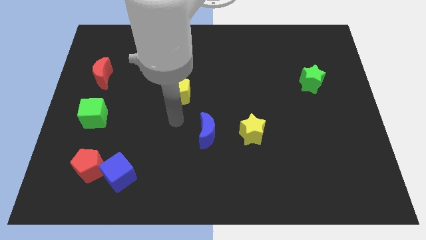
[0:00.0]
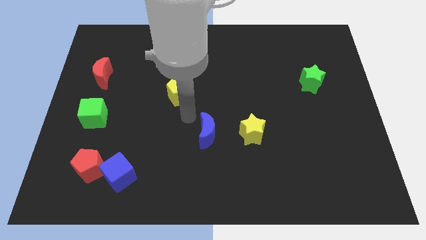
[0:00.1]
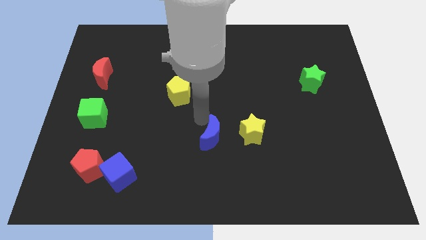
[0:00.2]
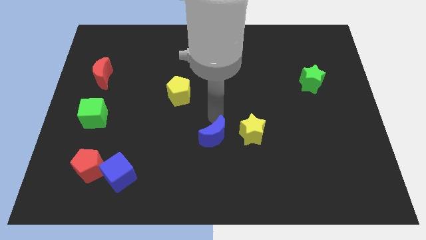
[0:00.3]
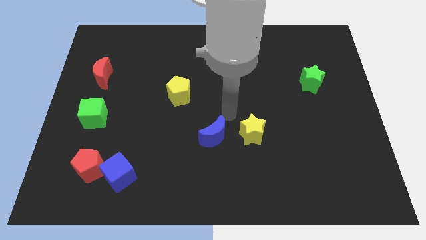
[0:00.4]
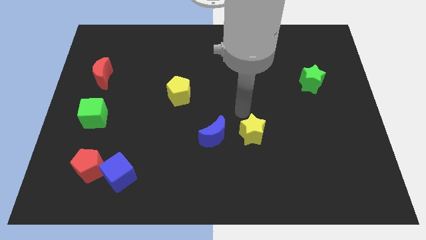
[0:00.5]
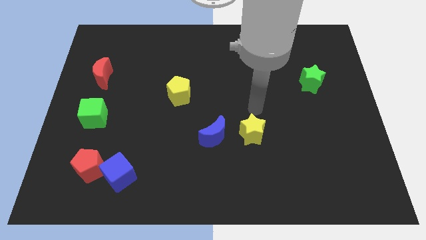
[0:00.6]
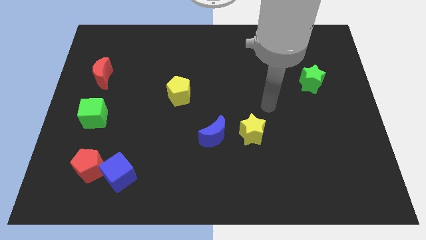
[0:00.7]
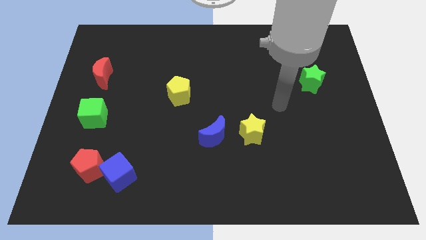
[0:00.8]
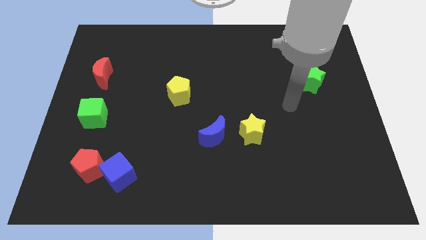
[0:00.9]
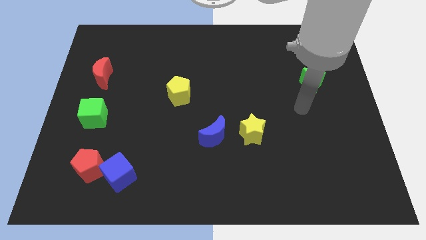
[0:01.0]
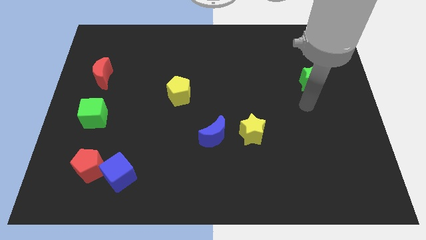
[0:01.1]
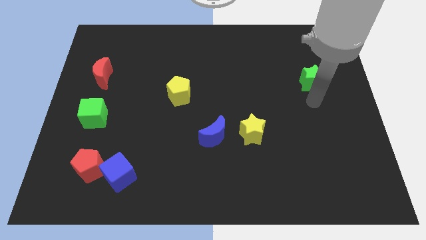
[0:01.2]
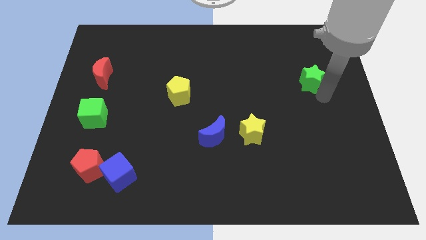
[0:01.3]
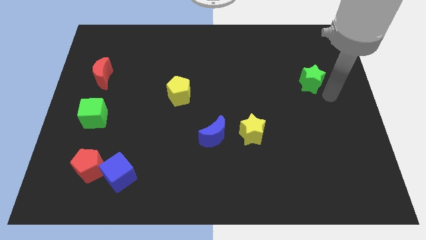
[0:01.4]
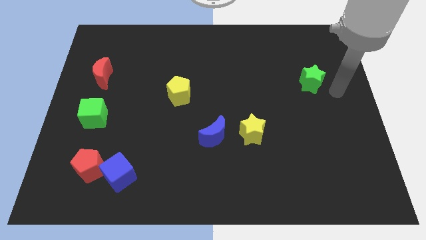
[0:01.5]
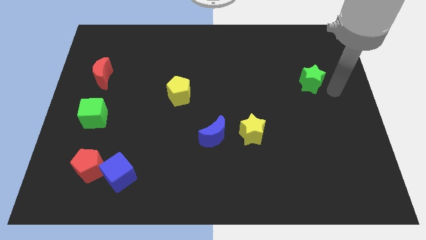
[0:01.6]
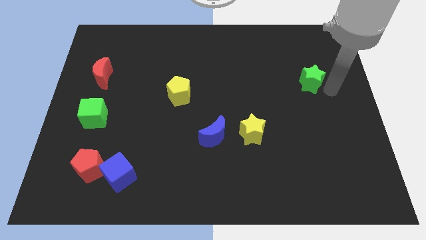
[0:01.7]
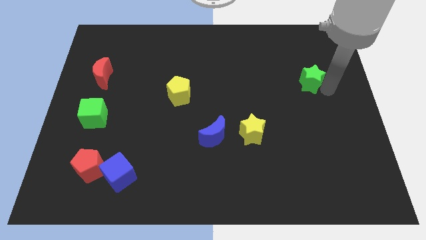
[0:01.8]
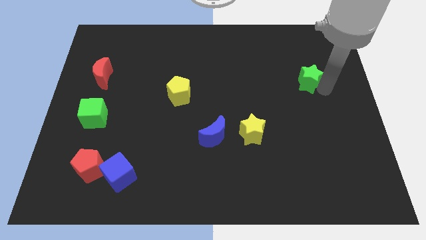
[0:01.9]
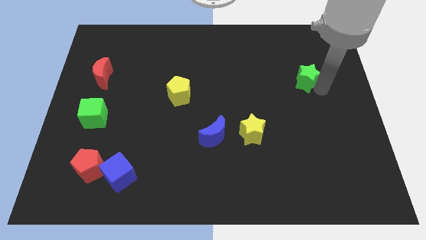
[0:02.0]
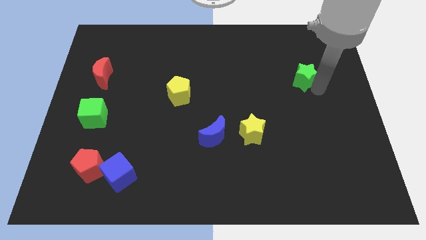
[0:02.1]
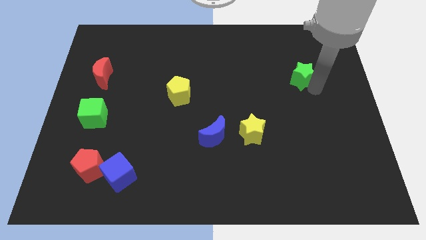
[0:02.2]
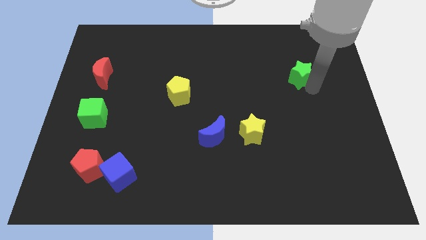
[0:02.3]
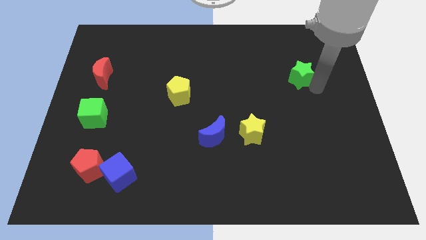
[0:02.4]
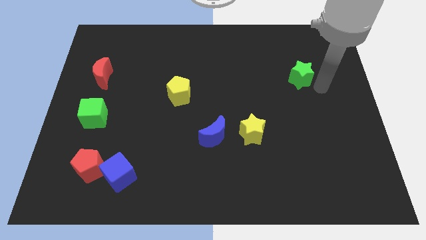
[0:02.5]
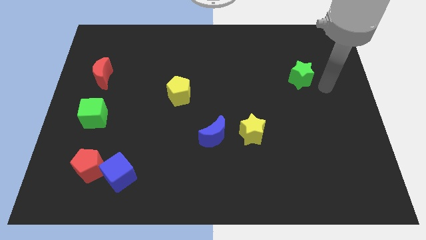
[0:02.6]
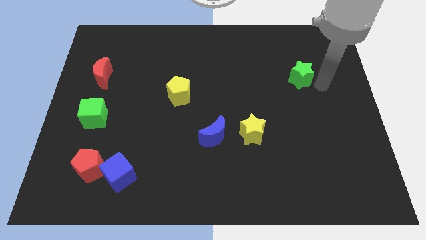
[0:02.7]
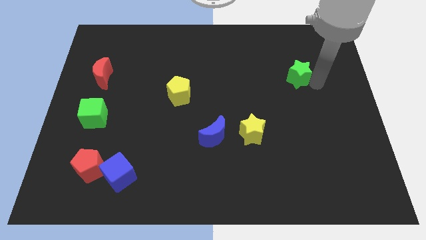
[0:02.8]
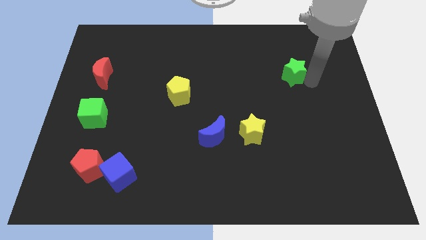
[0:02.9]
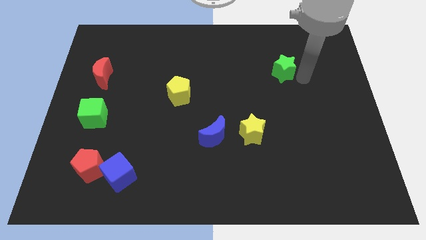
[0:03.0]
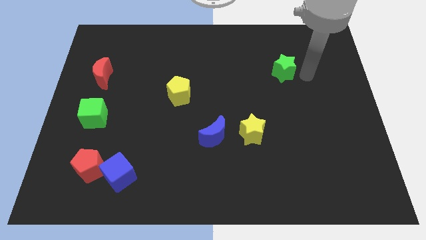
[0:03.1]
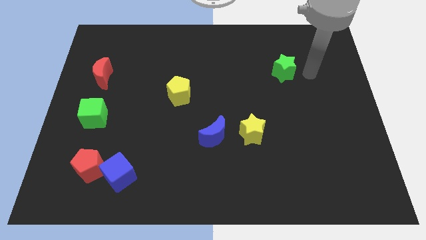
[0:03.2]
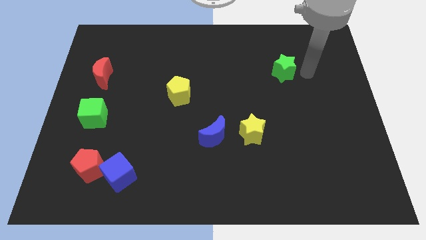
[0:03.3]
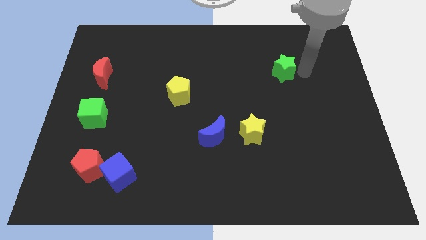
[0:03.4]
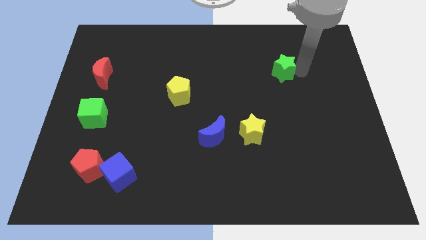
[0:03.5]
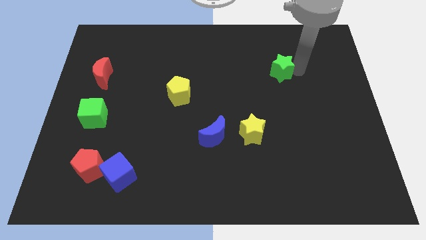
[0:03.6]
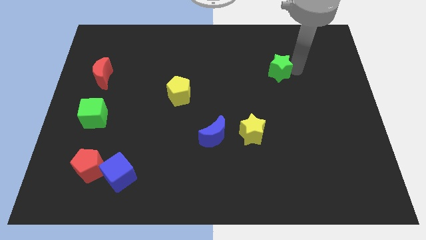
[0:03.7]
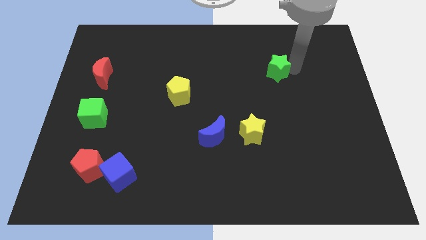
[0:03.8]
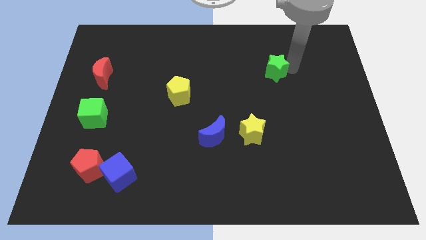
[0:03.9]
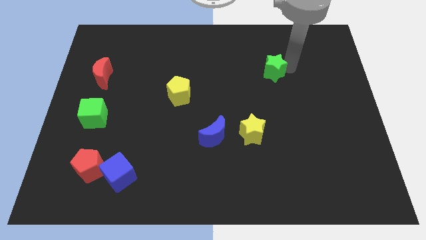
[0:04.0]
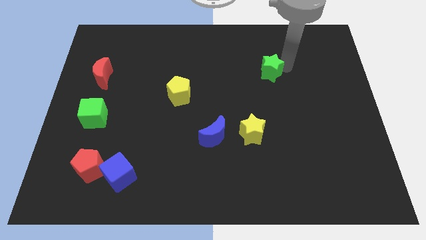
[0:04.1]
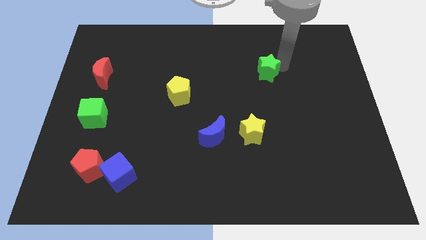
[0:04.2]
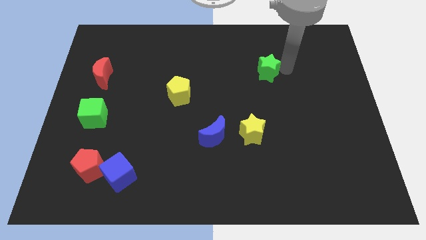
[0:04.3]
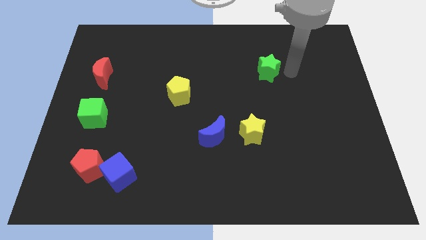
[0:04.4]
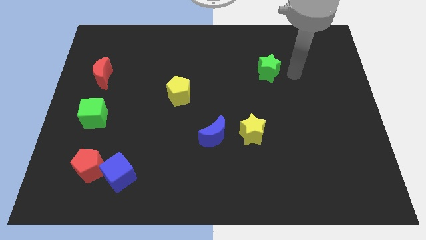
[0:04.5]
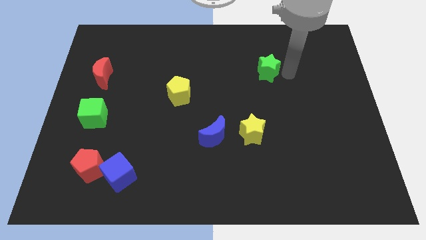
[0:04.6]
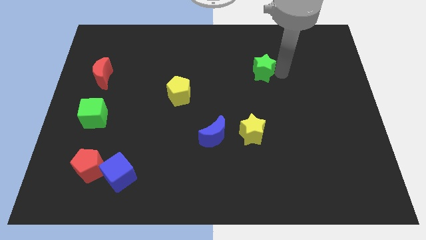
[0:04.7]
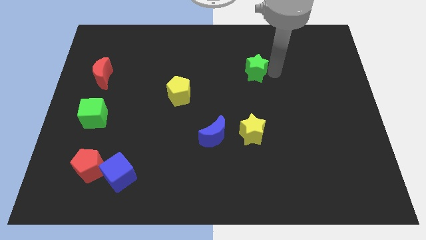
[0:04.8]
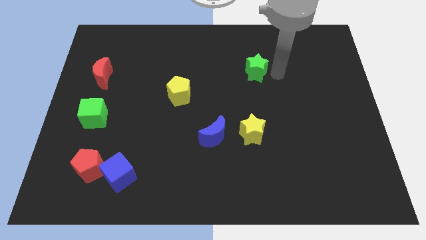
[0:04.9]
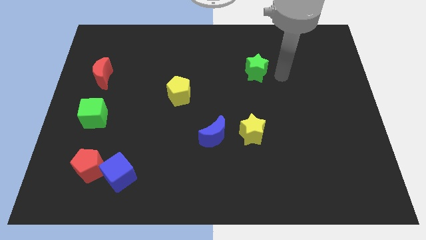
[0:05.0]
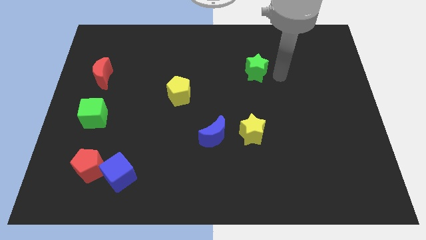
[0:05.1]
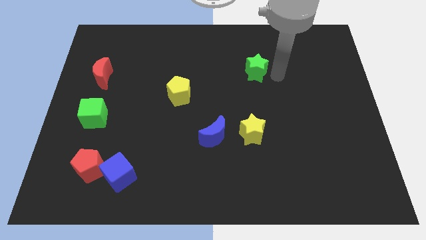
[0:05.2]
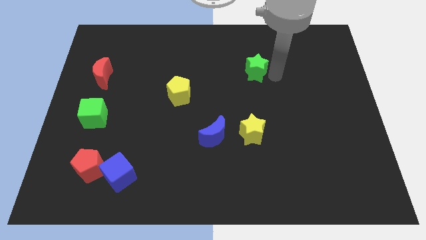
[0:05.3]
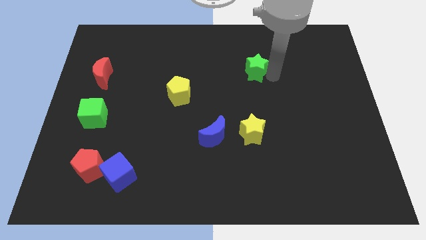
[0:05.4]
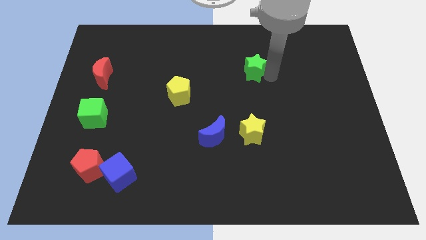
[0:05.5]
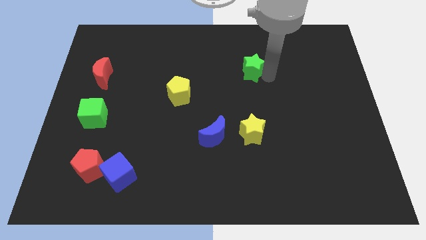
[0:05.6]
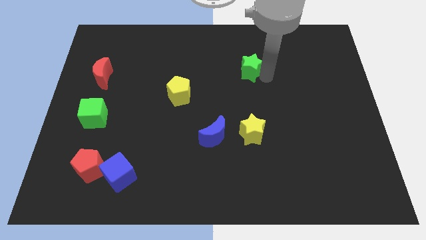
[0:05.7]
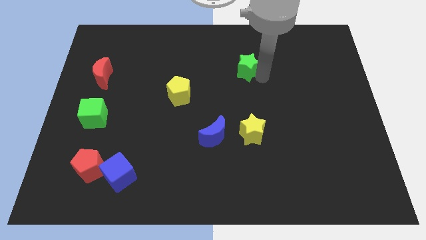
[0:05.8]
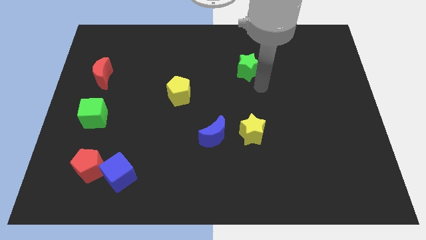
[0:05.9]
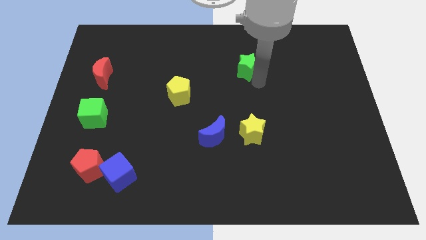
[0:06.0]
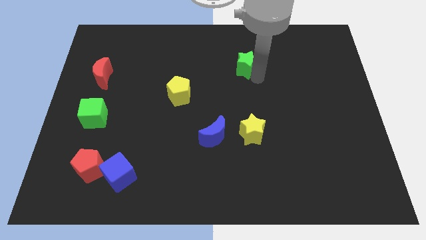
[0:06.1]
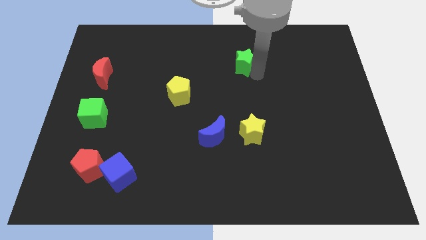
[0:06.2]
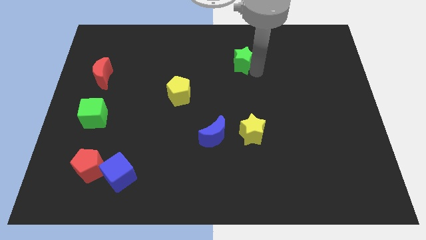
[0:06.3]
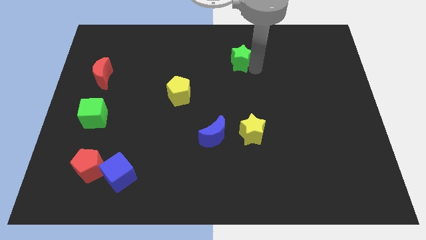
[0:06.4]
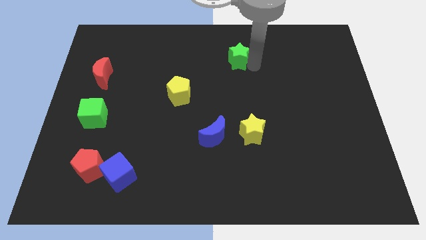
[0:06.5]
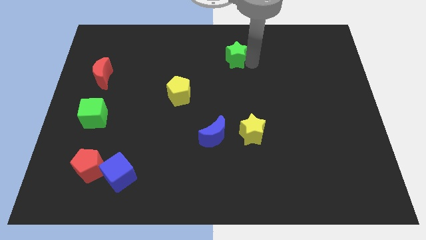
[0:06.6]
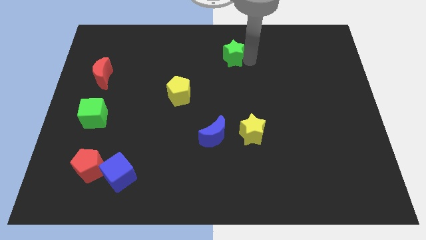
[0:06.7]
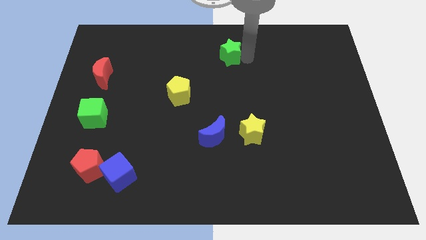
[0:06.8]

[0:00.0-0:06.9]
push the green star to the top
